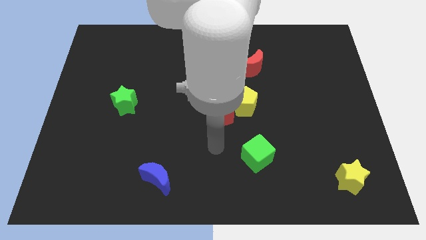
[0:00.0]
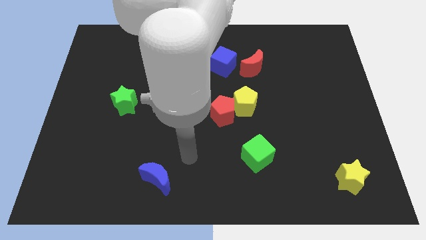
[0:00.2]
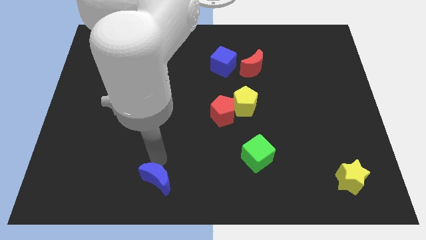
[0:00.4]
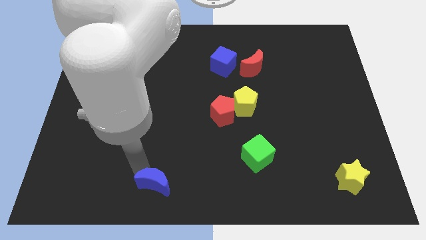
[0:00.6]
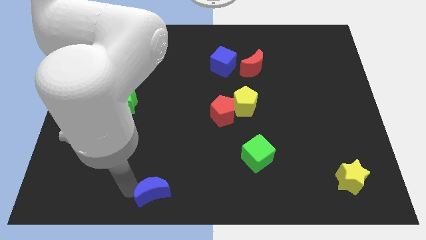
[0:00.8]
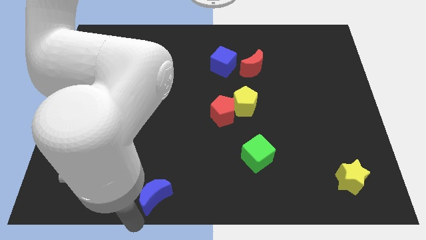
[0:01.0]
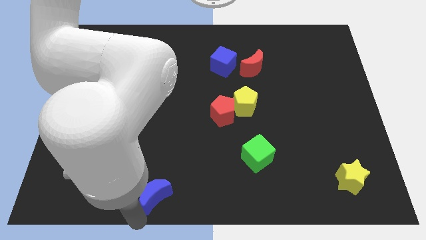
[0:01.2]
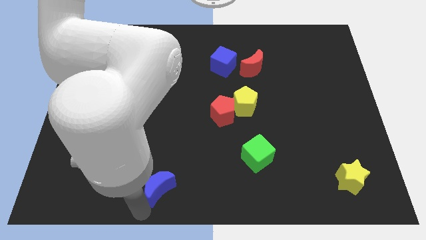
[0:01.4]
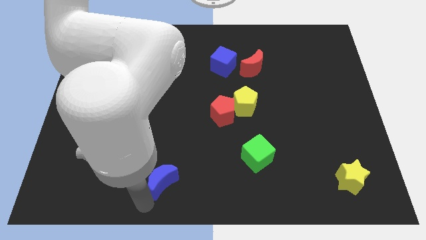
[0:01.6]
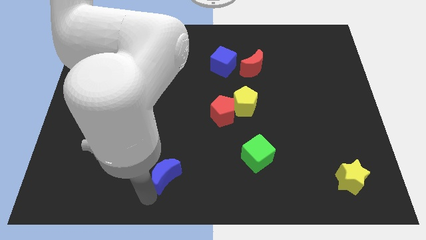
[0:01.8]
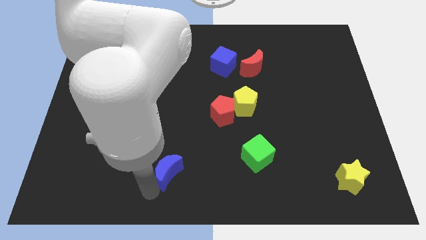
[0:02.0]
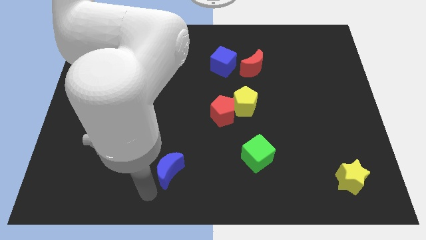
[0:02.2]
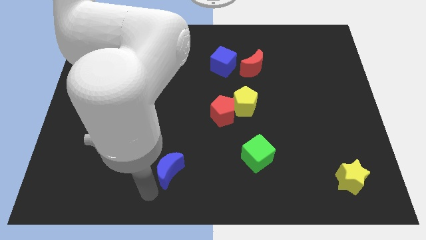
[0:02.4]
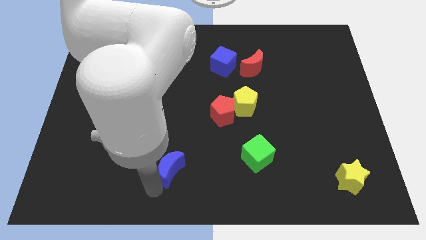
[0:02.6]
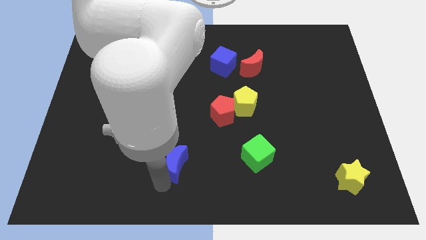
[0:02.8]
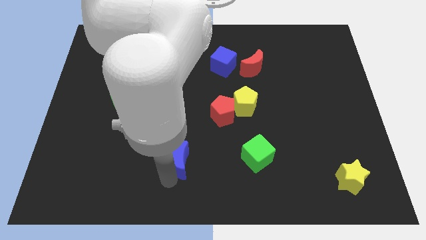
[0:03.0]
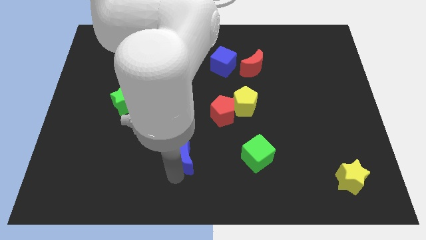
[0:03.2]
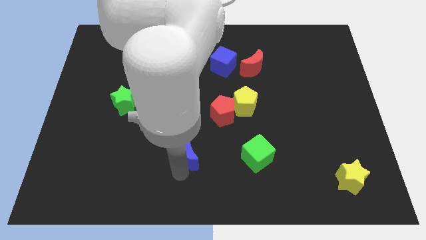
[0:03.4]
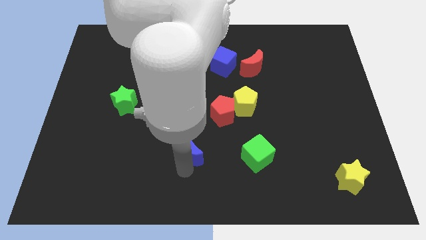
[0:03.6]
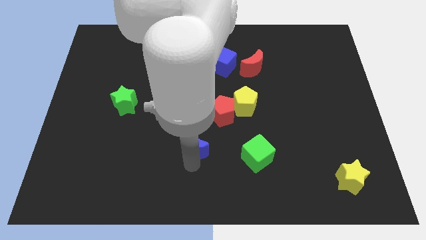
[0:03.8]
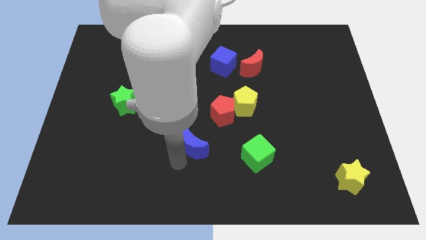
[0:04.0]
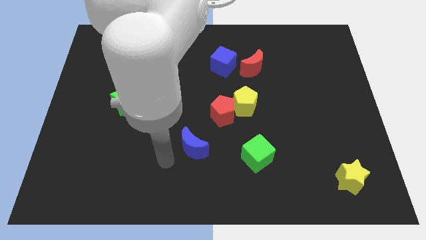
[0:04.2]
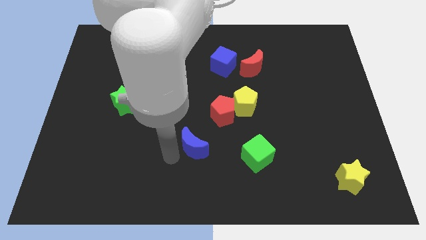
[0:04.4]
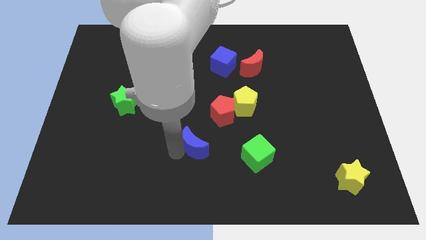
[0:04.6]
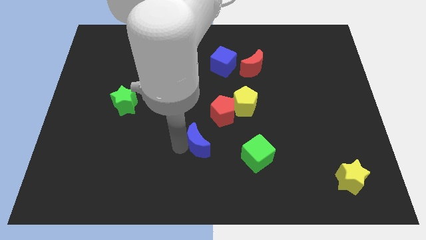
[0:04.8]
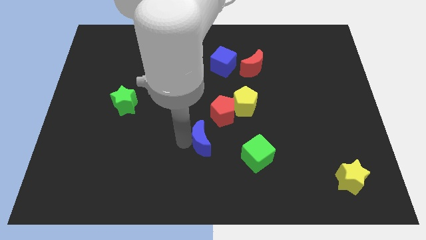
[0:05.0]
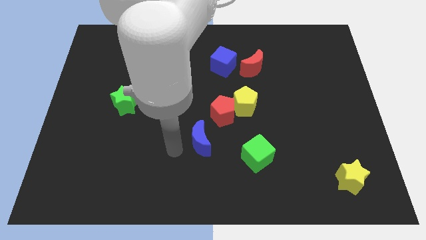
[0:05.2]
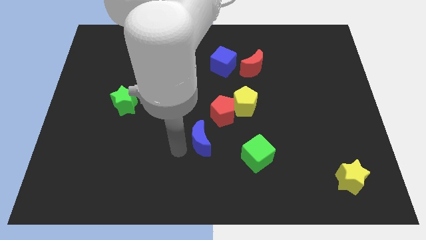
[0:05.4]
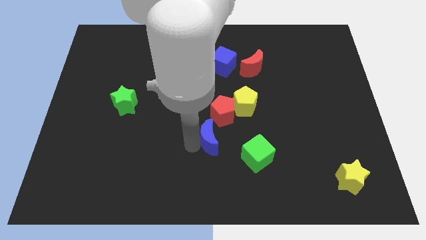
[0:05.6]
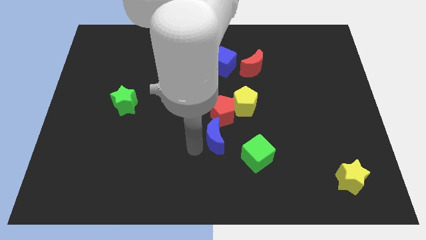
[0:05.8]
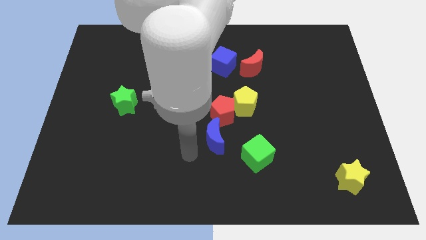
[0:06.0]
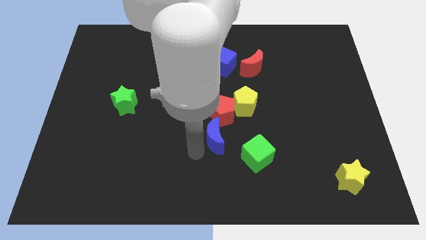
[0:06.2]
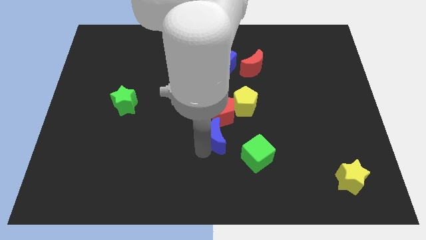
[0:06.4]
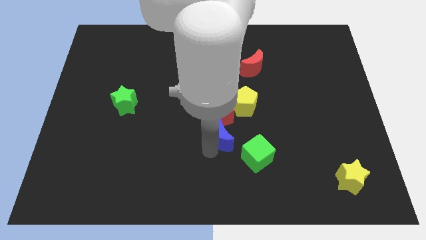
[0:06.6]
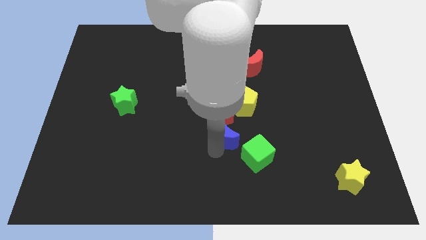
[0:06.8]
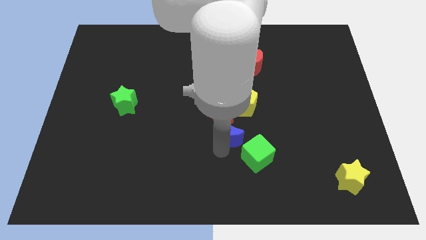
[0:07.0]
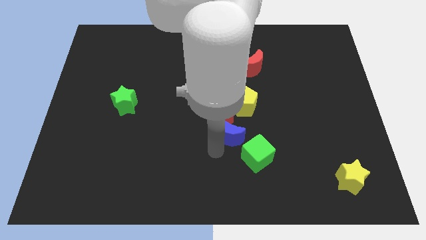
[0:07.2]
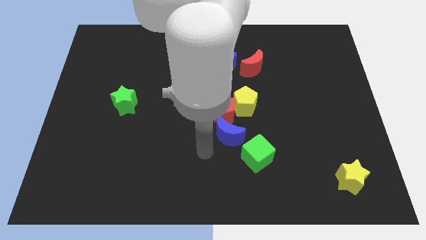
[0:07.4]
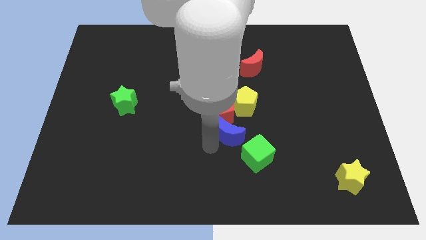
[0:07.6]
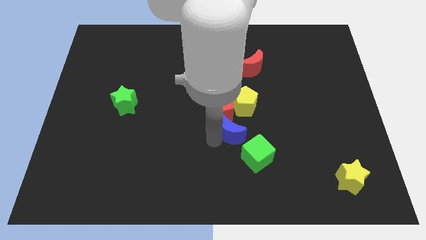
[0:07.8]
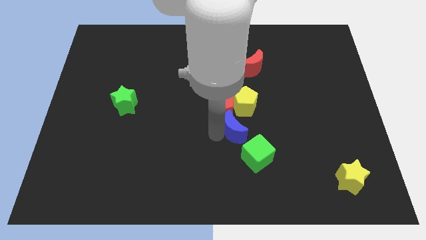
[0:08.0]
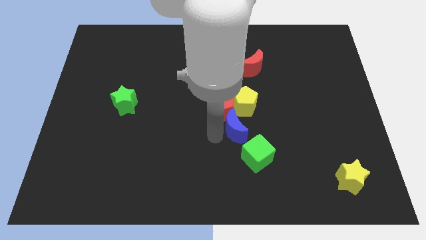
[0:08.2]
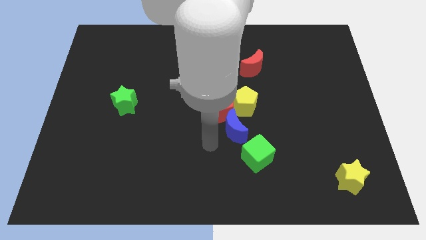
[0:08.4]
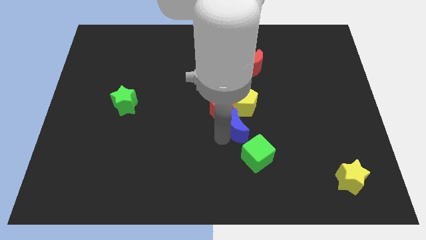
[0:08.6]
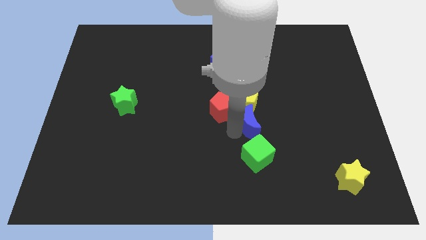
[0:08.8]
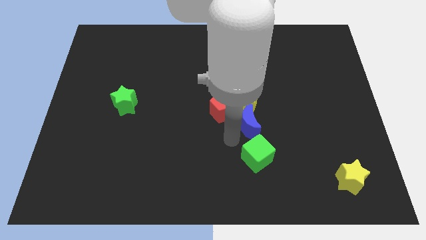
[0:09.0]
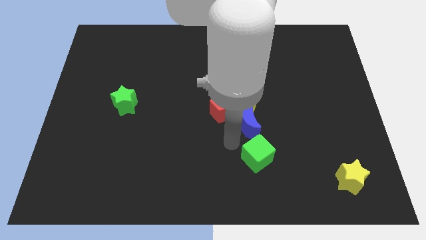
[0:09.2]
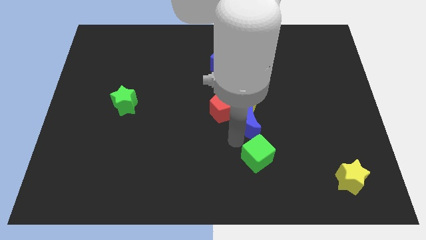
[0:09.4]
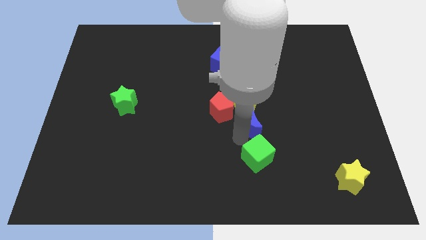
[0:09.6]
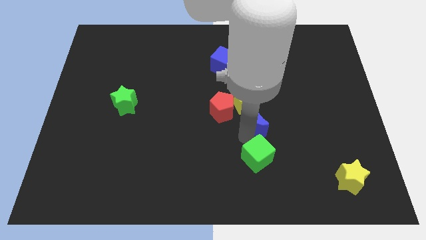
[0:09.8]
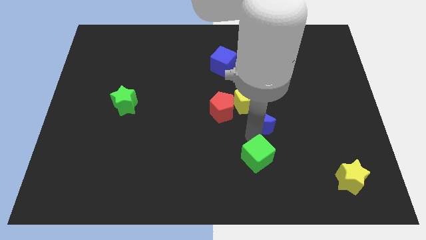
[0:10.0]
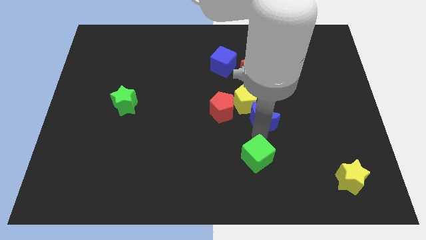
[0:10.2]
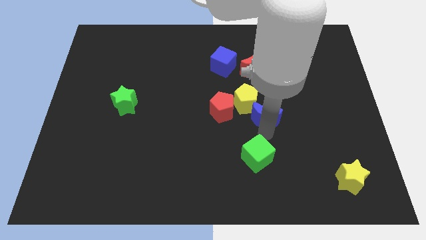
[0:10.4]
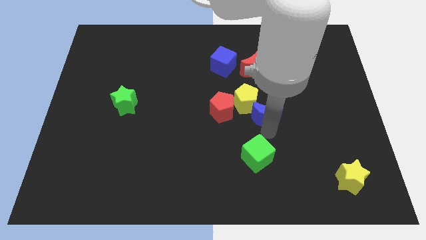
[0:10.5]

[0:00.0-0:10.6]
put the blue moon to the bottom of the red moon

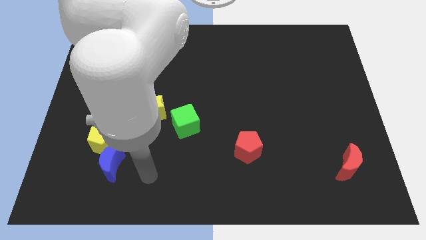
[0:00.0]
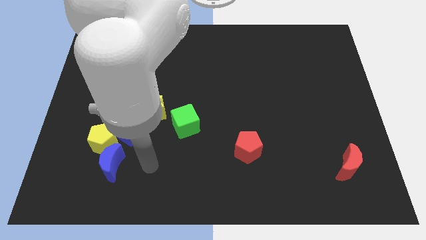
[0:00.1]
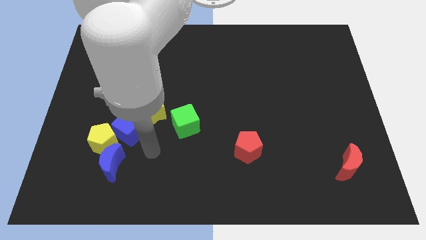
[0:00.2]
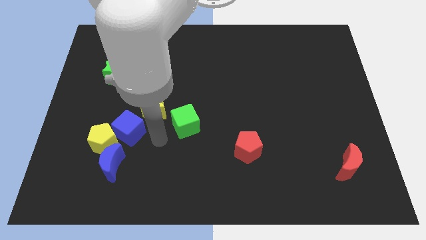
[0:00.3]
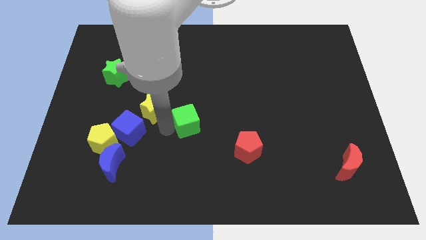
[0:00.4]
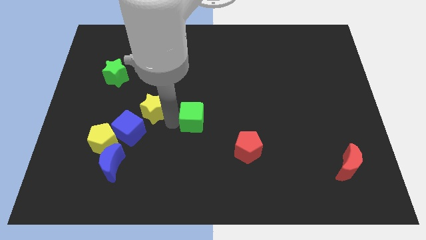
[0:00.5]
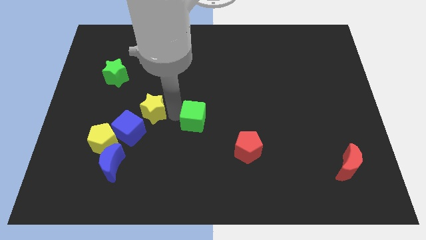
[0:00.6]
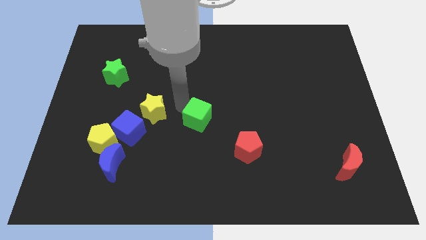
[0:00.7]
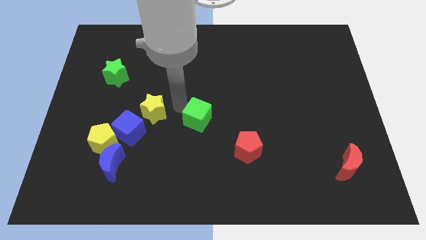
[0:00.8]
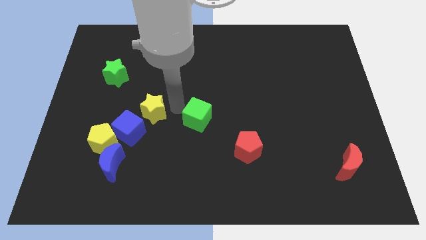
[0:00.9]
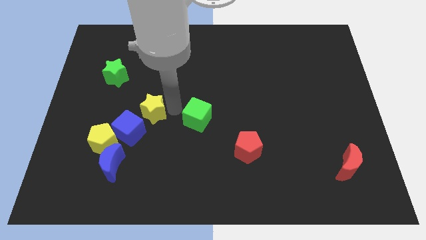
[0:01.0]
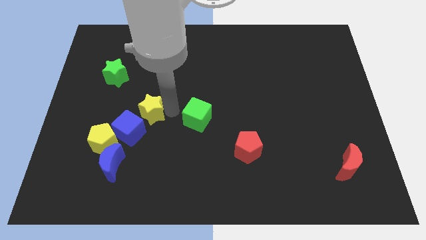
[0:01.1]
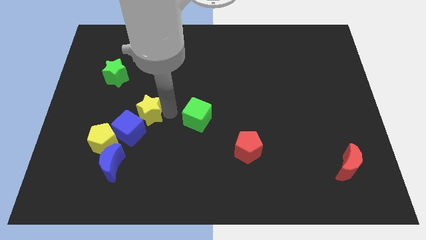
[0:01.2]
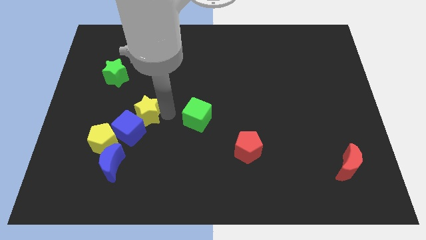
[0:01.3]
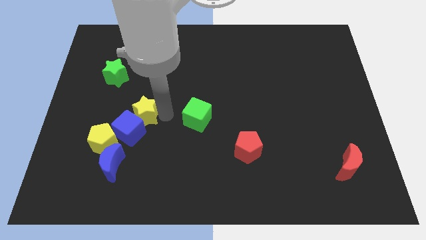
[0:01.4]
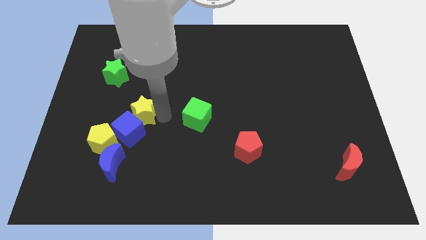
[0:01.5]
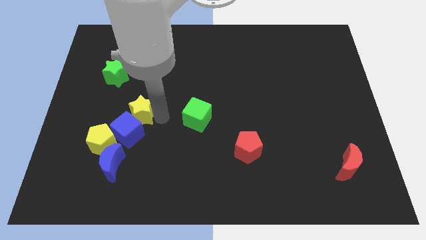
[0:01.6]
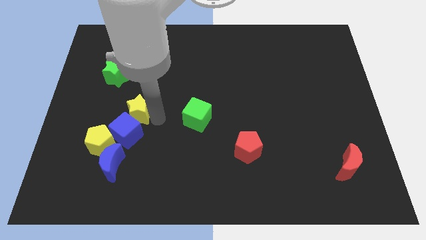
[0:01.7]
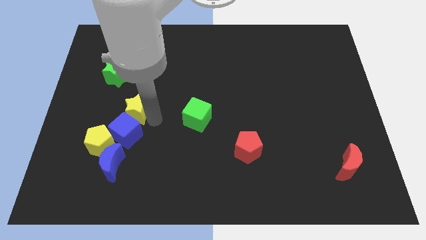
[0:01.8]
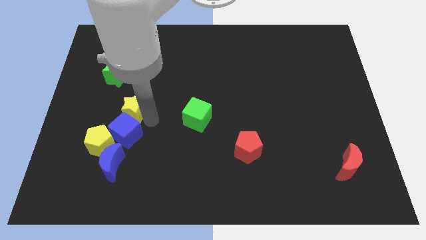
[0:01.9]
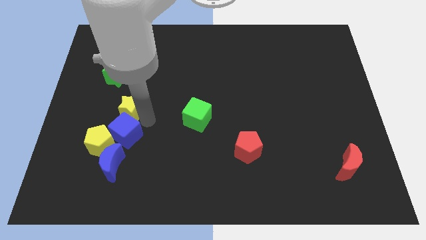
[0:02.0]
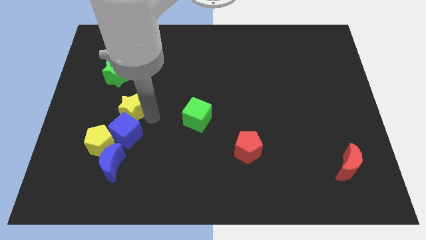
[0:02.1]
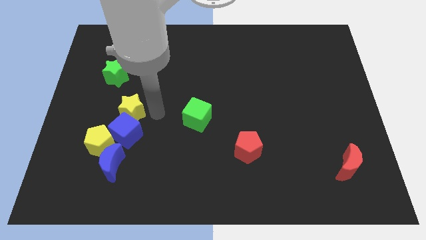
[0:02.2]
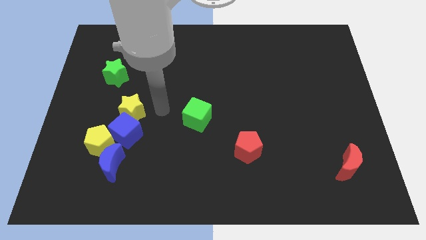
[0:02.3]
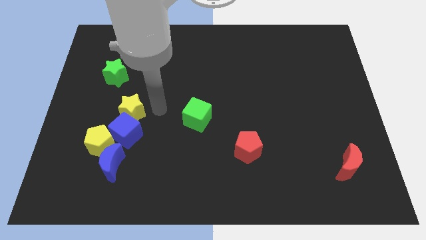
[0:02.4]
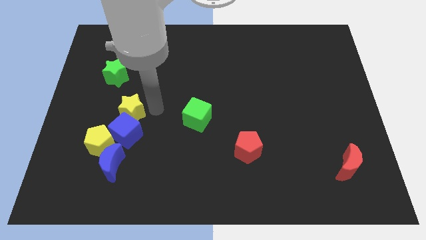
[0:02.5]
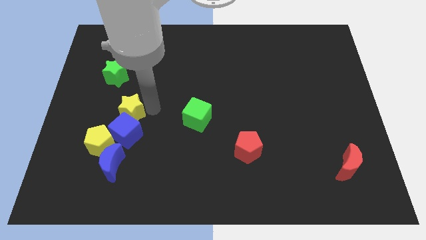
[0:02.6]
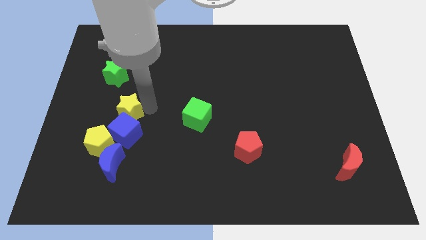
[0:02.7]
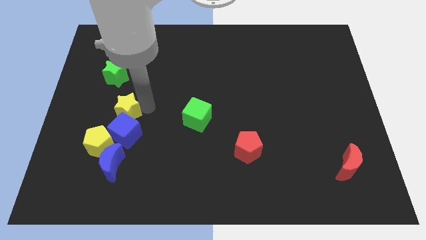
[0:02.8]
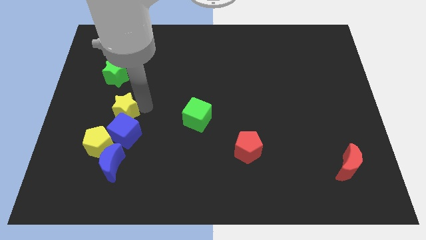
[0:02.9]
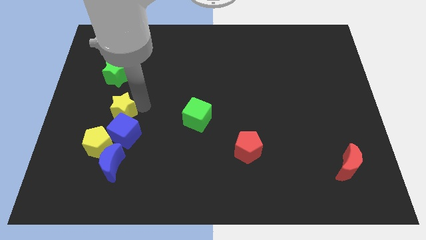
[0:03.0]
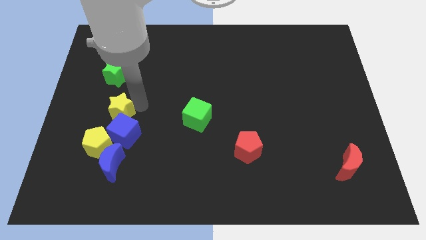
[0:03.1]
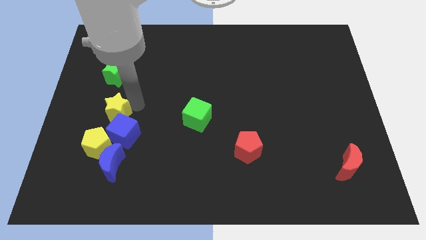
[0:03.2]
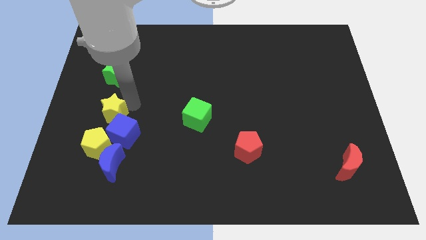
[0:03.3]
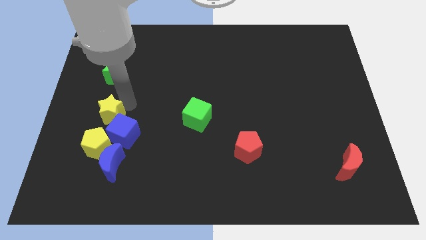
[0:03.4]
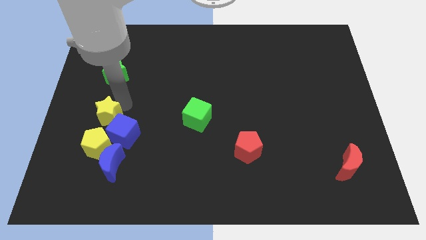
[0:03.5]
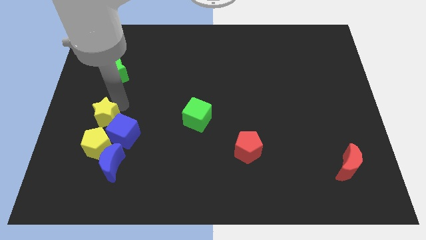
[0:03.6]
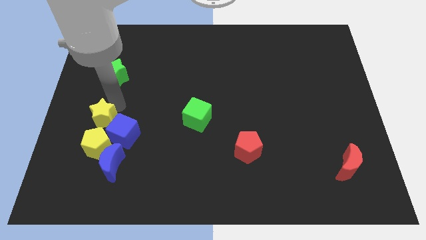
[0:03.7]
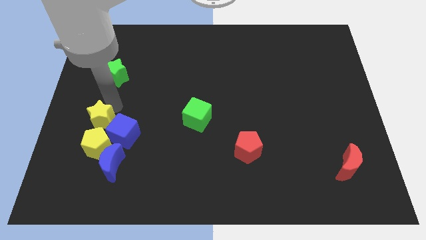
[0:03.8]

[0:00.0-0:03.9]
move the yellow star to the top left side of the yellow pentagon
